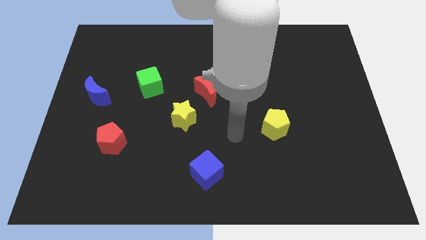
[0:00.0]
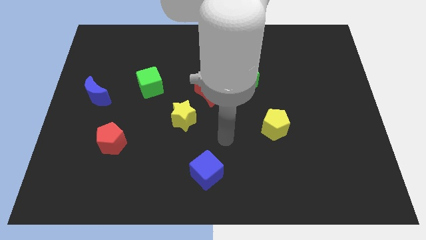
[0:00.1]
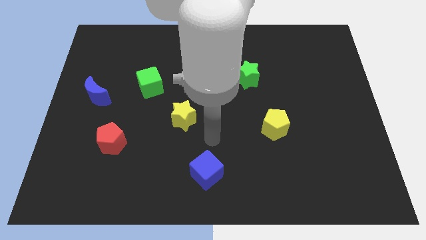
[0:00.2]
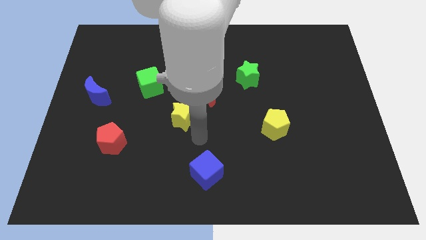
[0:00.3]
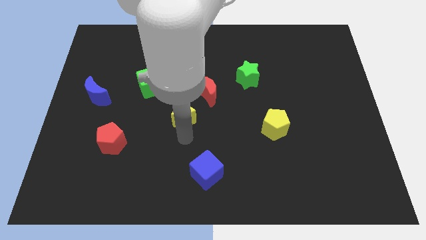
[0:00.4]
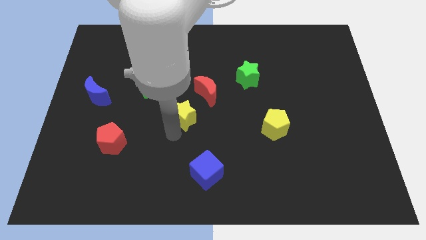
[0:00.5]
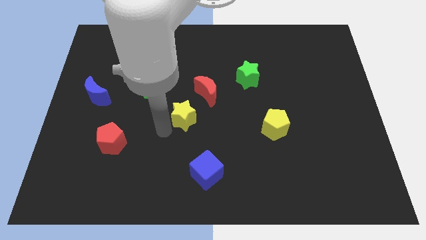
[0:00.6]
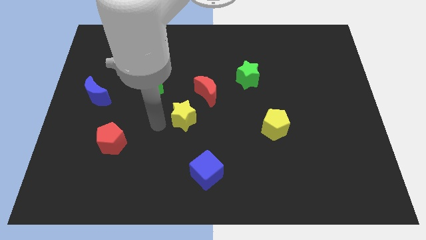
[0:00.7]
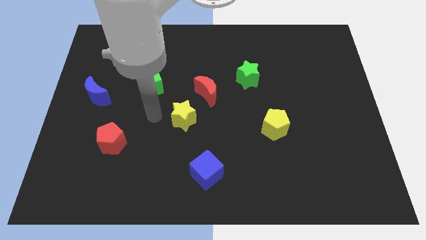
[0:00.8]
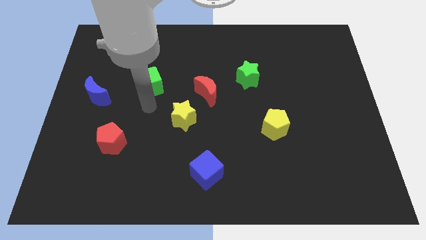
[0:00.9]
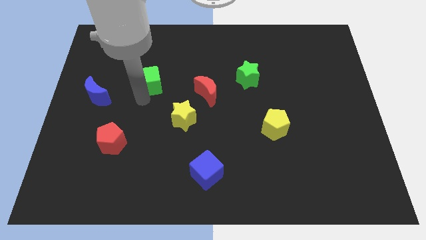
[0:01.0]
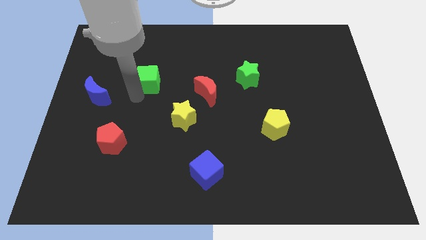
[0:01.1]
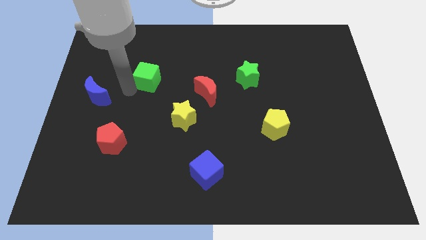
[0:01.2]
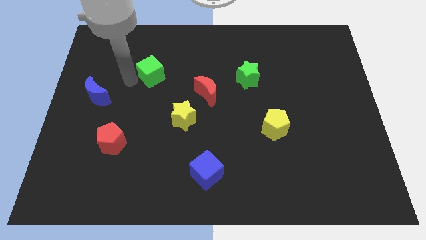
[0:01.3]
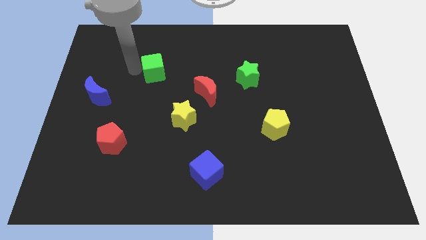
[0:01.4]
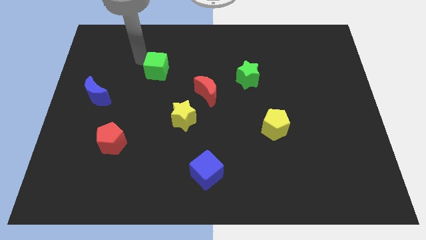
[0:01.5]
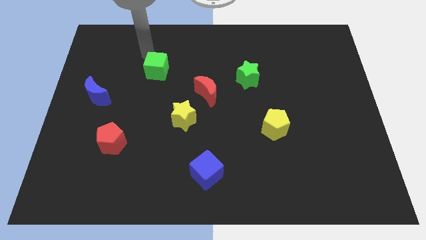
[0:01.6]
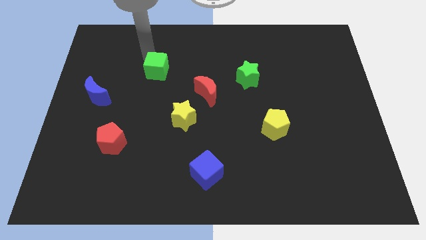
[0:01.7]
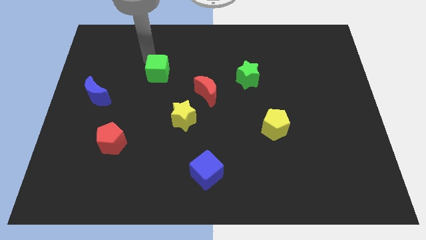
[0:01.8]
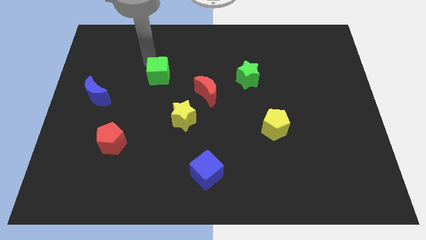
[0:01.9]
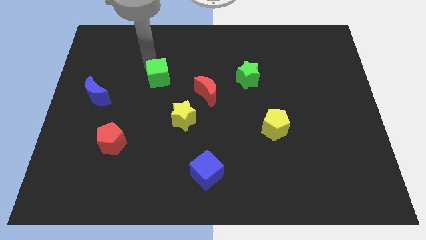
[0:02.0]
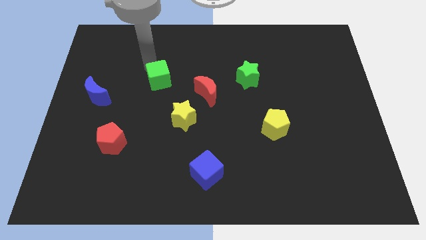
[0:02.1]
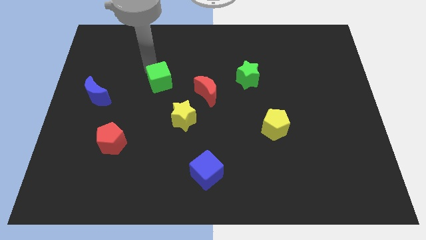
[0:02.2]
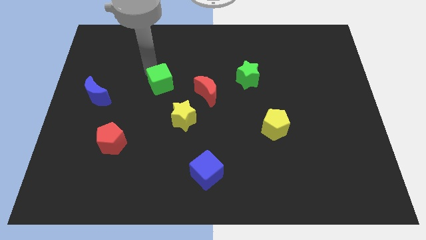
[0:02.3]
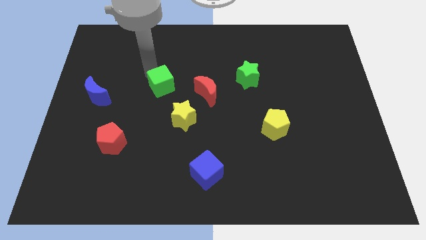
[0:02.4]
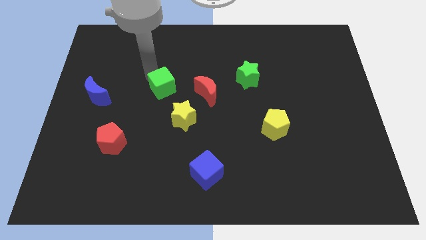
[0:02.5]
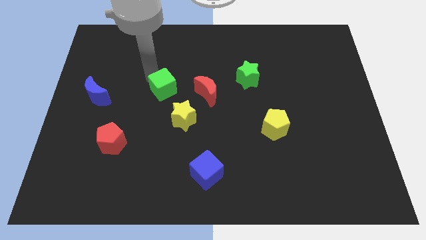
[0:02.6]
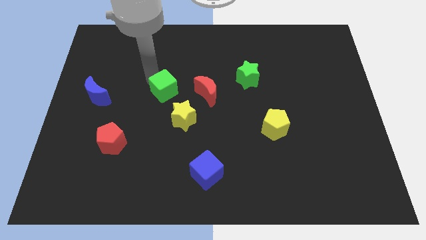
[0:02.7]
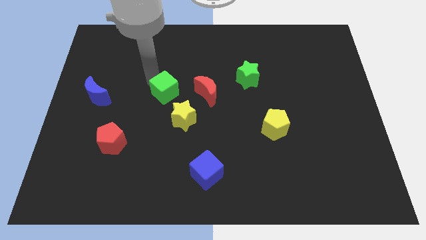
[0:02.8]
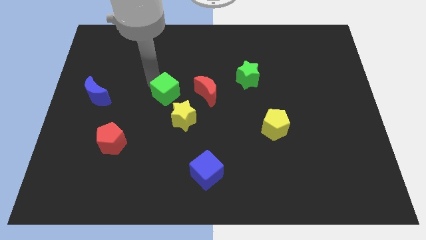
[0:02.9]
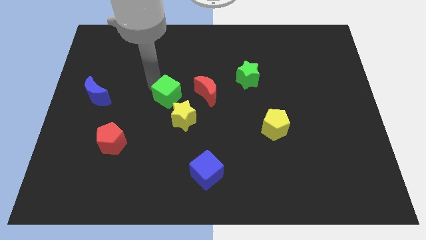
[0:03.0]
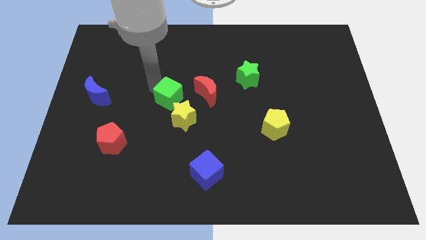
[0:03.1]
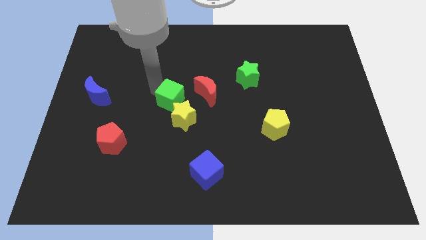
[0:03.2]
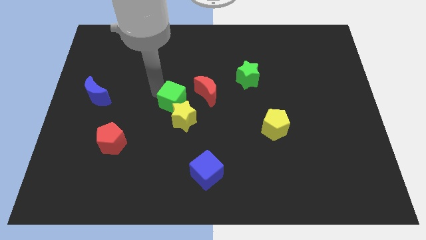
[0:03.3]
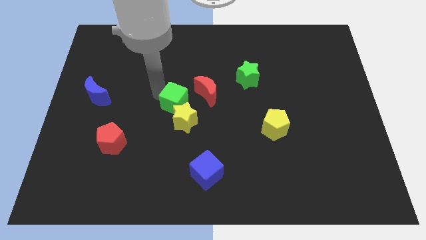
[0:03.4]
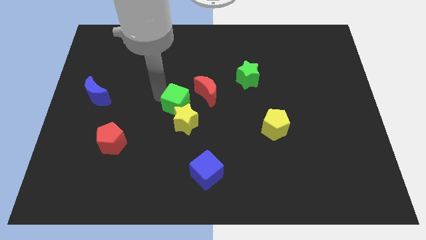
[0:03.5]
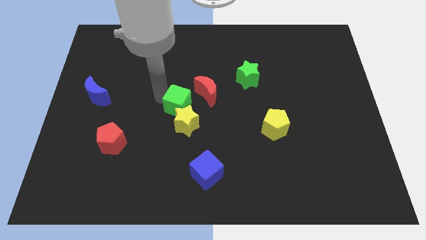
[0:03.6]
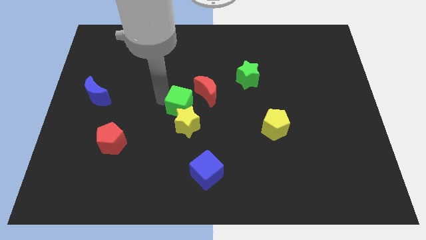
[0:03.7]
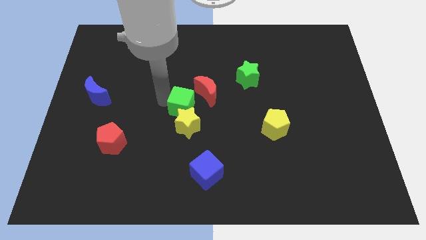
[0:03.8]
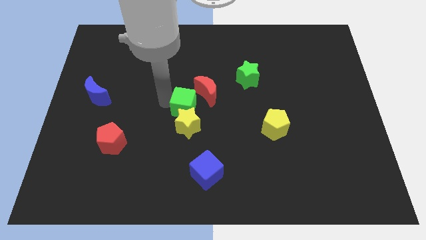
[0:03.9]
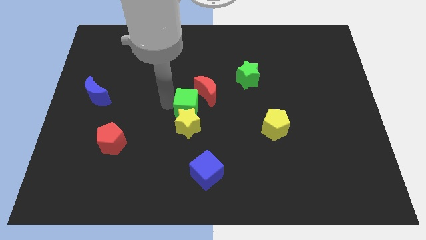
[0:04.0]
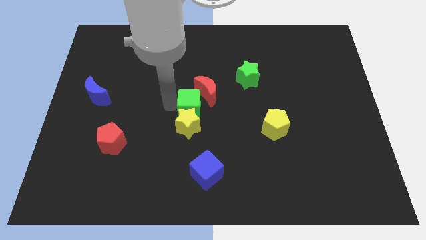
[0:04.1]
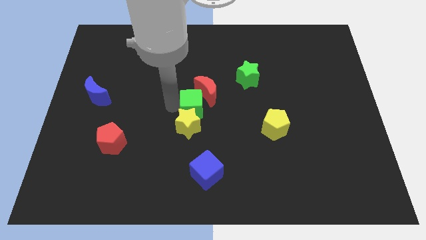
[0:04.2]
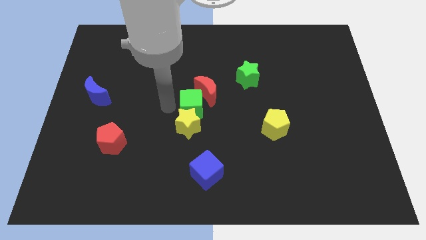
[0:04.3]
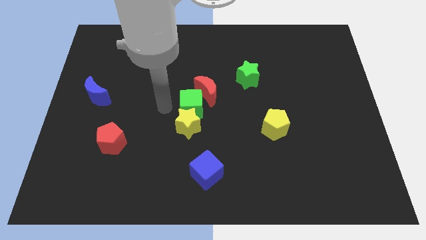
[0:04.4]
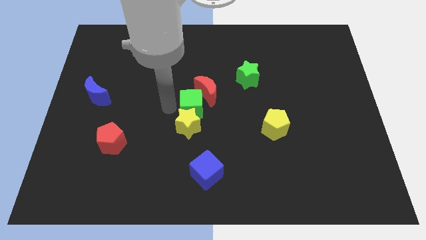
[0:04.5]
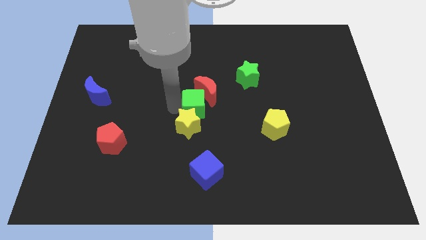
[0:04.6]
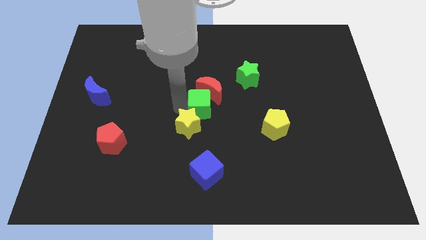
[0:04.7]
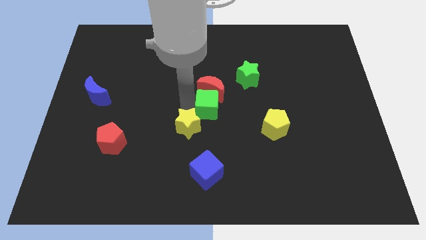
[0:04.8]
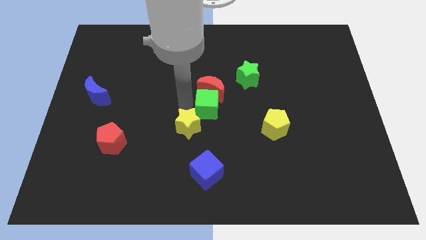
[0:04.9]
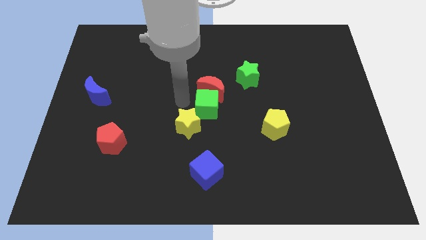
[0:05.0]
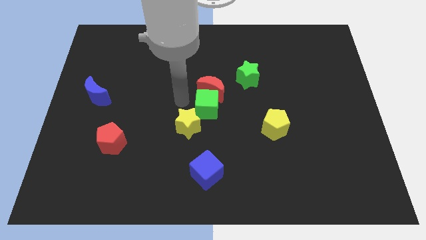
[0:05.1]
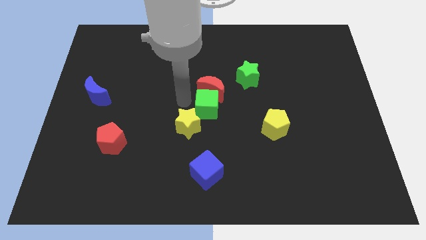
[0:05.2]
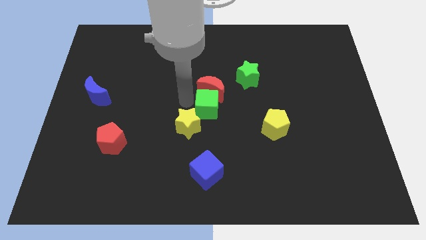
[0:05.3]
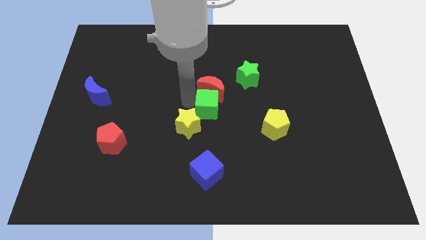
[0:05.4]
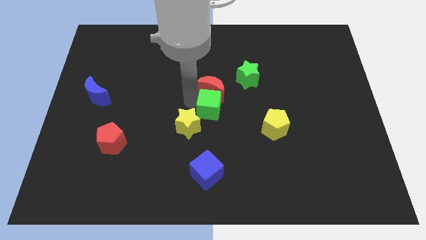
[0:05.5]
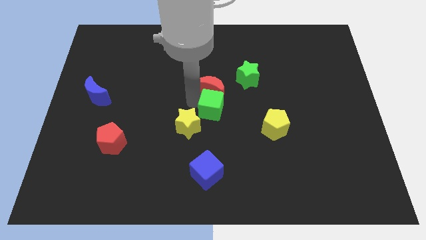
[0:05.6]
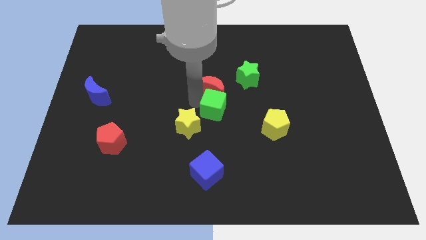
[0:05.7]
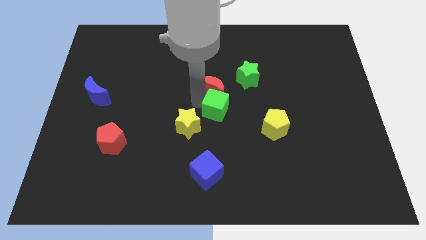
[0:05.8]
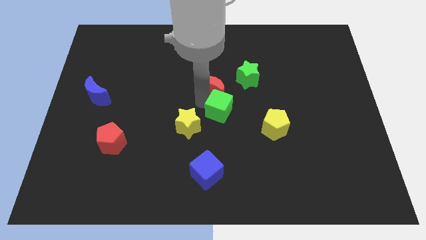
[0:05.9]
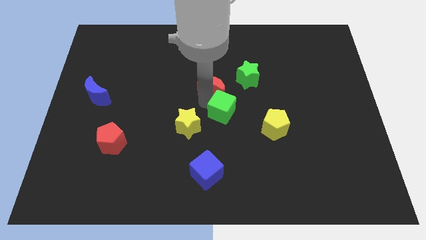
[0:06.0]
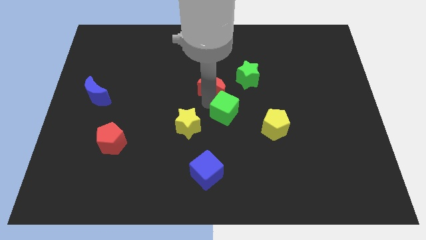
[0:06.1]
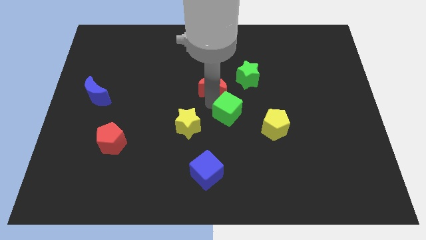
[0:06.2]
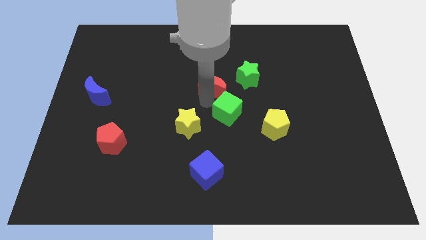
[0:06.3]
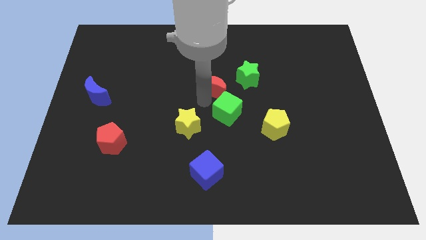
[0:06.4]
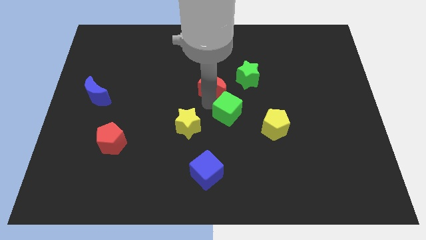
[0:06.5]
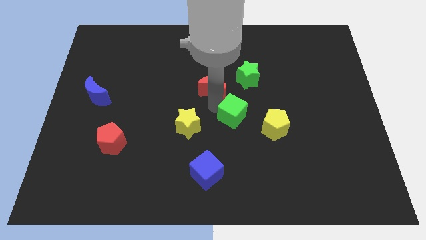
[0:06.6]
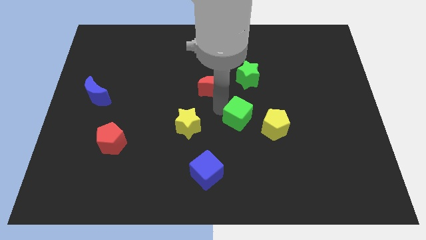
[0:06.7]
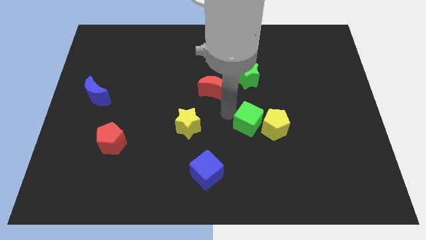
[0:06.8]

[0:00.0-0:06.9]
push the green cube close to the yellow pentagon
